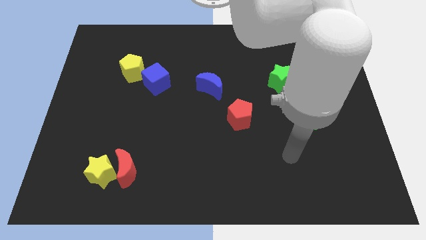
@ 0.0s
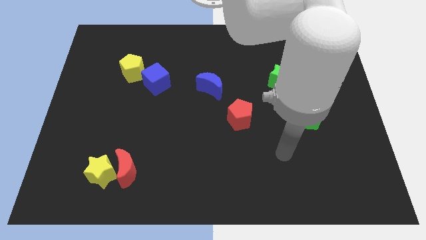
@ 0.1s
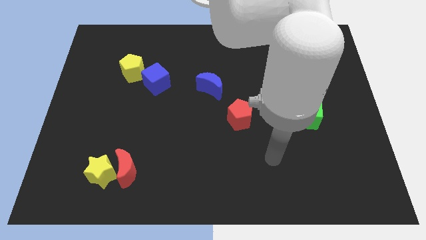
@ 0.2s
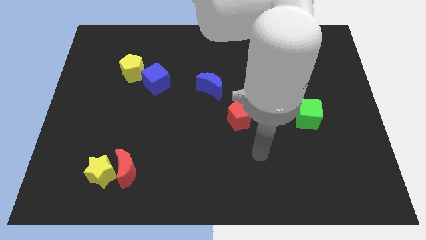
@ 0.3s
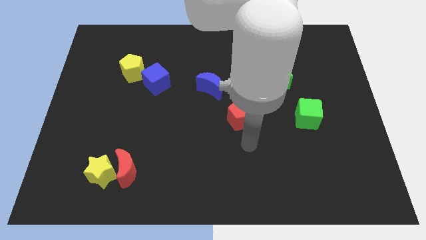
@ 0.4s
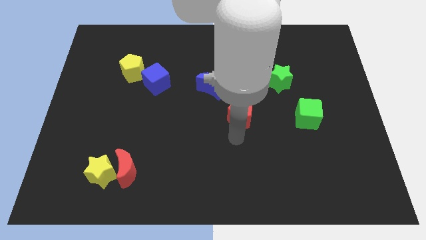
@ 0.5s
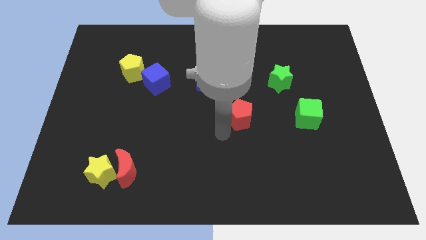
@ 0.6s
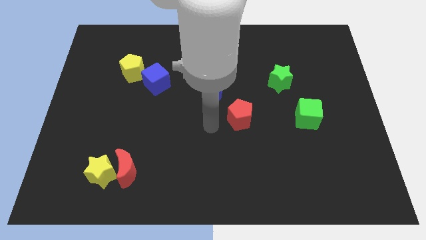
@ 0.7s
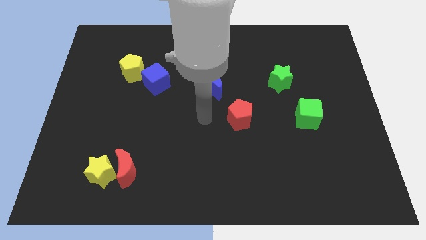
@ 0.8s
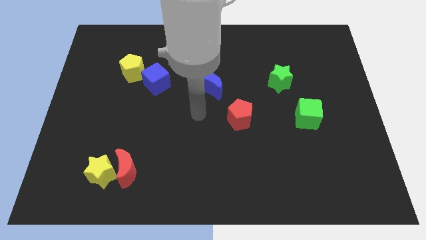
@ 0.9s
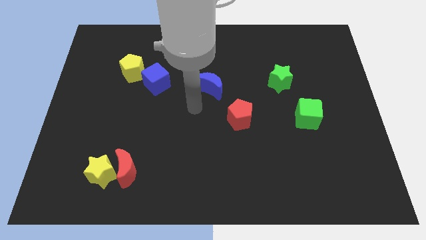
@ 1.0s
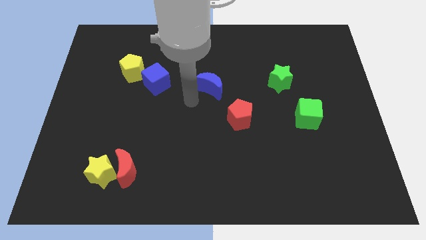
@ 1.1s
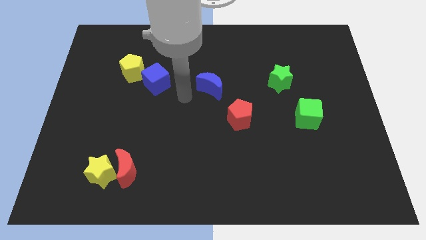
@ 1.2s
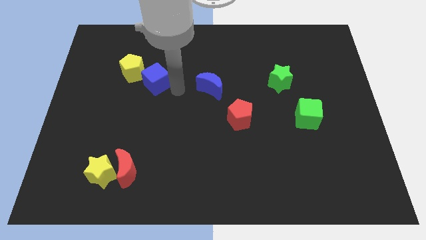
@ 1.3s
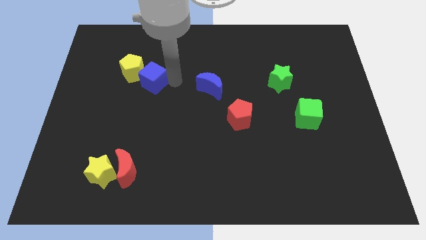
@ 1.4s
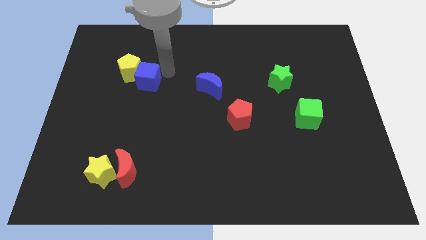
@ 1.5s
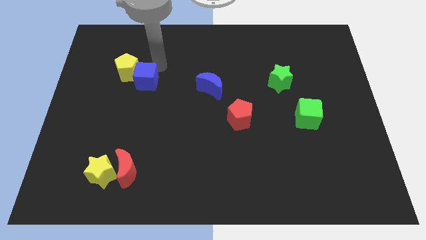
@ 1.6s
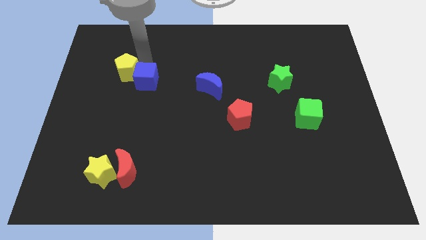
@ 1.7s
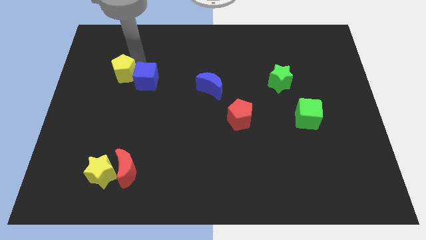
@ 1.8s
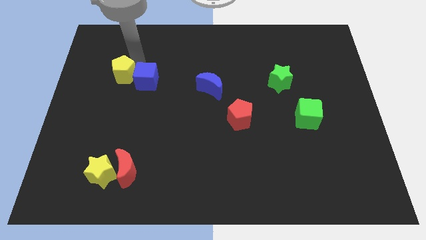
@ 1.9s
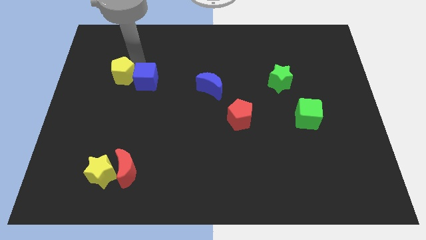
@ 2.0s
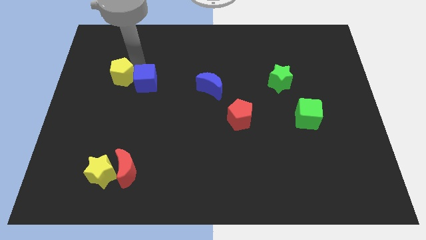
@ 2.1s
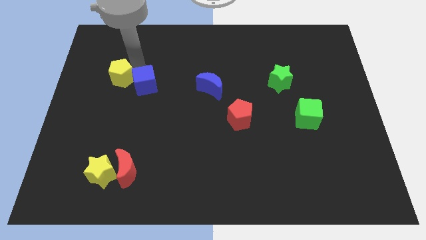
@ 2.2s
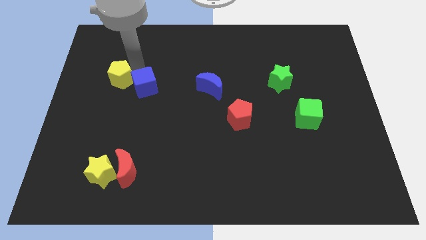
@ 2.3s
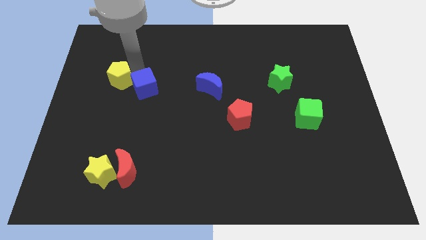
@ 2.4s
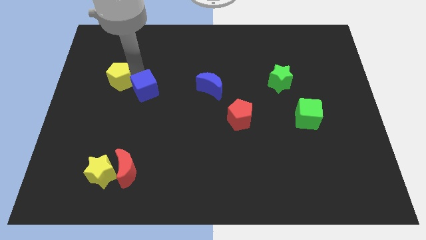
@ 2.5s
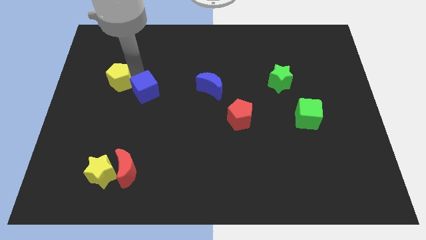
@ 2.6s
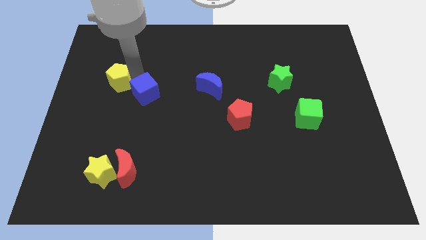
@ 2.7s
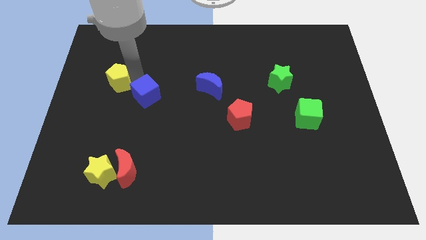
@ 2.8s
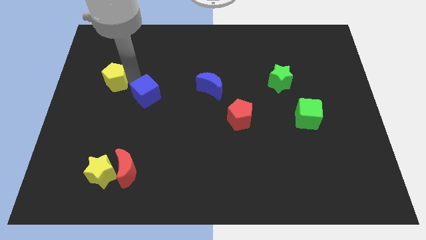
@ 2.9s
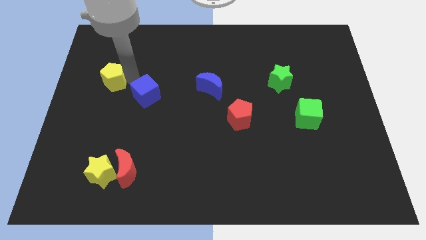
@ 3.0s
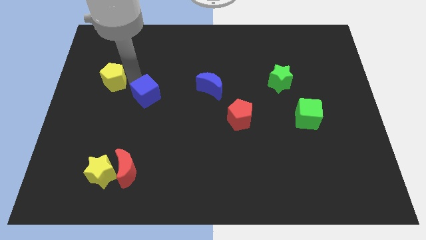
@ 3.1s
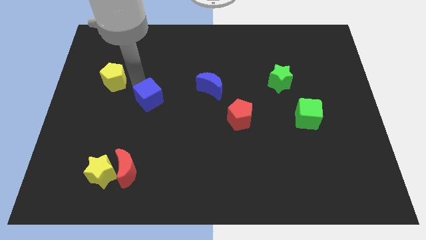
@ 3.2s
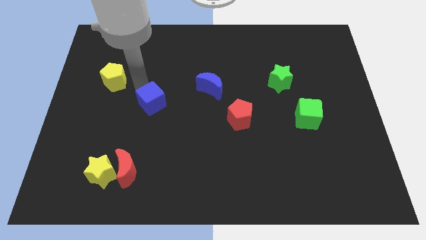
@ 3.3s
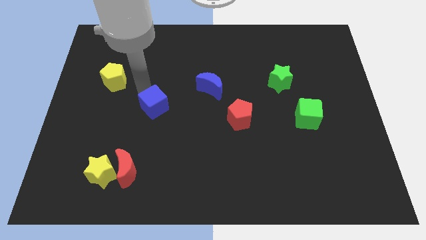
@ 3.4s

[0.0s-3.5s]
push the blue cube downwards somewhat

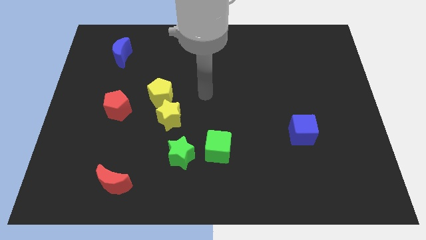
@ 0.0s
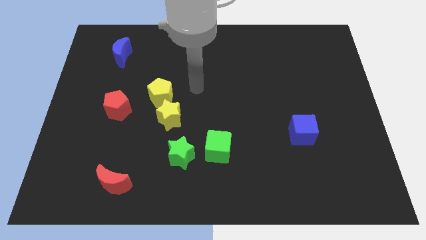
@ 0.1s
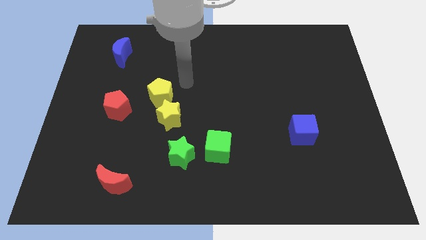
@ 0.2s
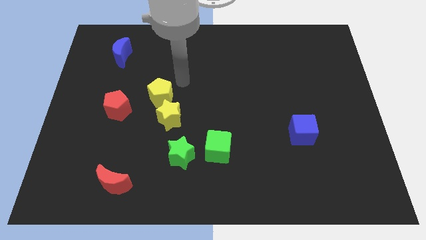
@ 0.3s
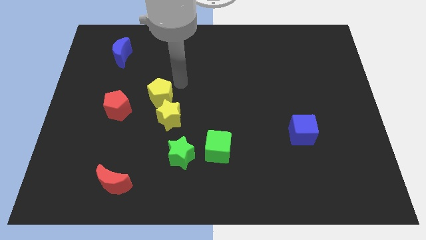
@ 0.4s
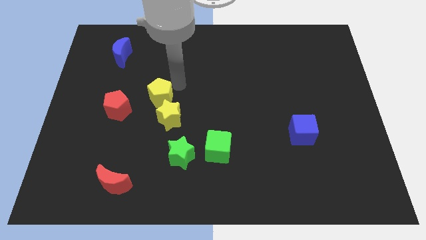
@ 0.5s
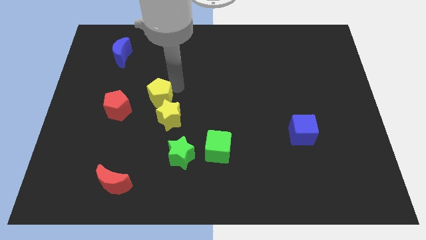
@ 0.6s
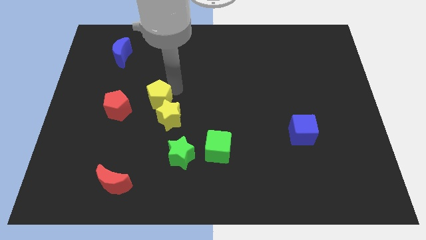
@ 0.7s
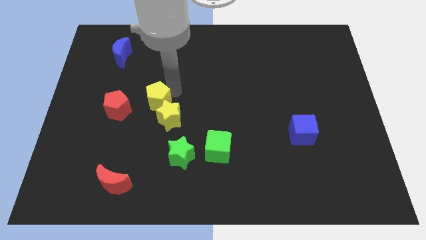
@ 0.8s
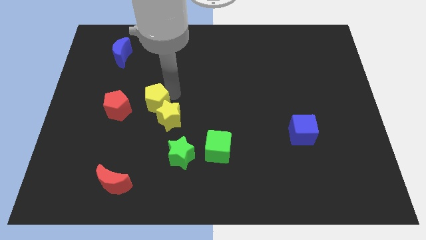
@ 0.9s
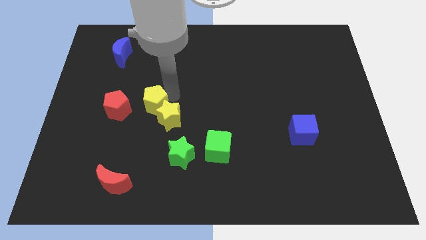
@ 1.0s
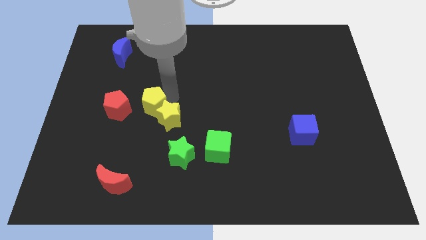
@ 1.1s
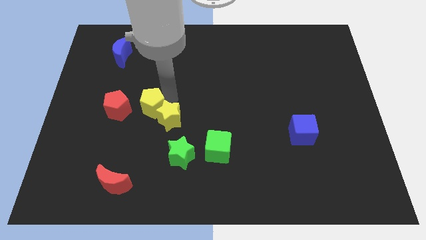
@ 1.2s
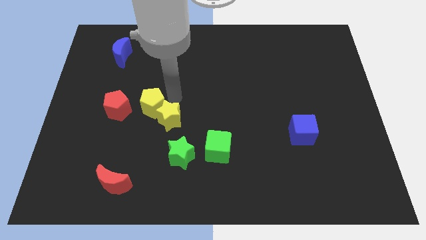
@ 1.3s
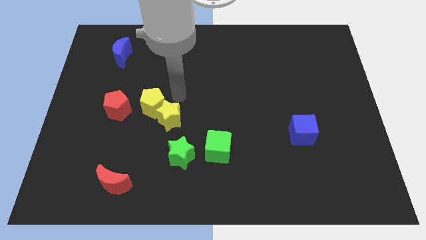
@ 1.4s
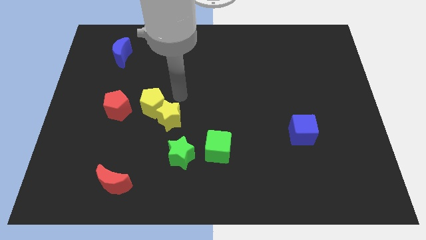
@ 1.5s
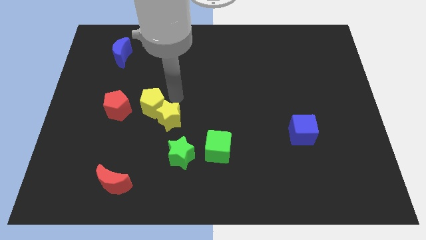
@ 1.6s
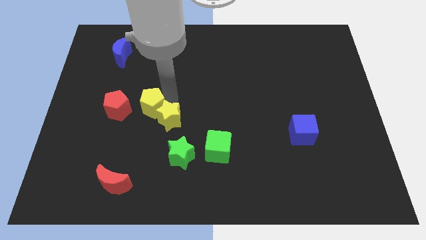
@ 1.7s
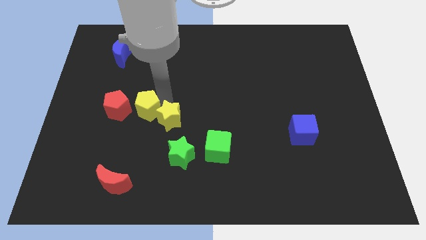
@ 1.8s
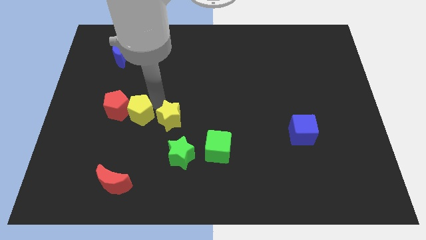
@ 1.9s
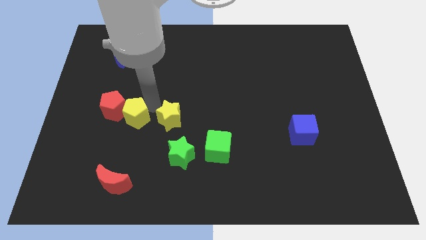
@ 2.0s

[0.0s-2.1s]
push the yellow pentagon a little bit diagonally down and to the left

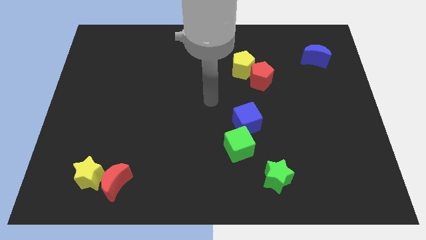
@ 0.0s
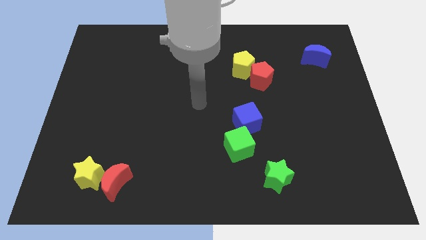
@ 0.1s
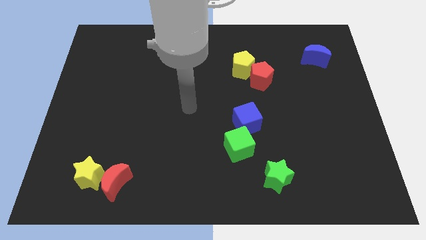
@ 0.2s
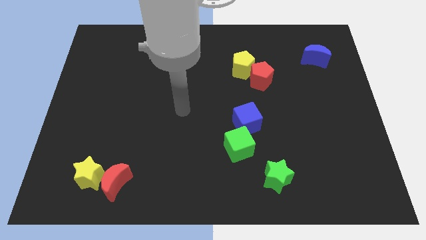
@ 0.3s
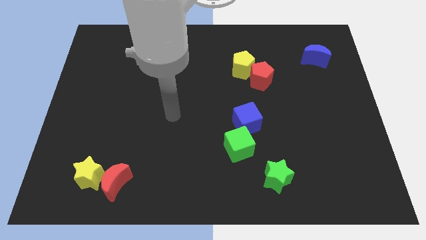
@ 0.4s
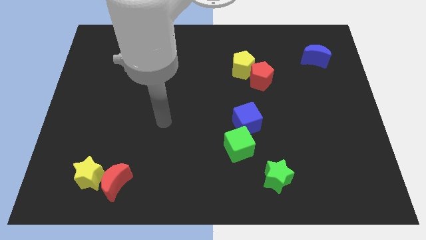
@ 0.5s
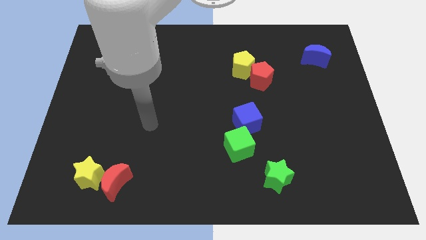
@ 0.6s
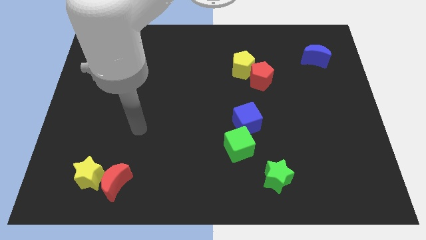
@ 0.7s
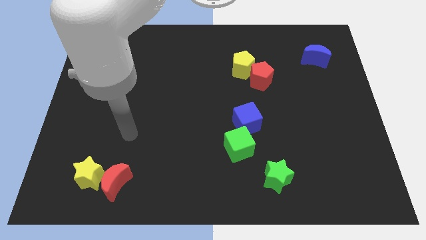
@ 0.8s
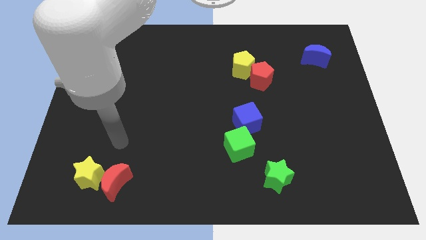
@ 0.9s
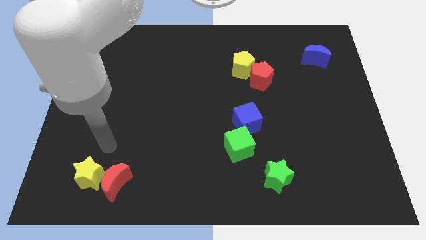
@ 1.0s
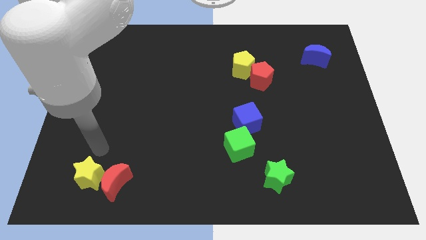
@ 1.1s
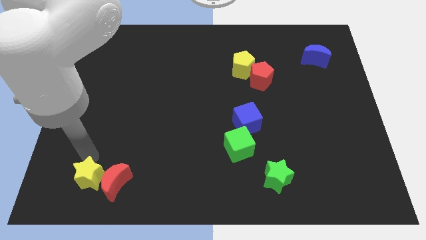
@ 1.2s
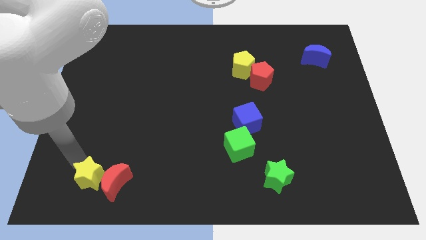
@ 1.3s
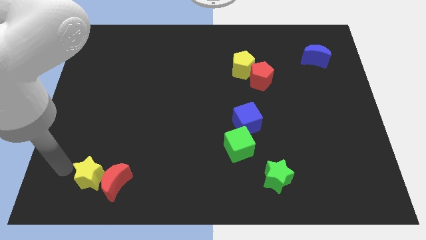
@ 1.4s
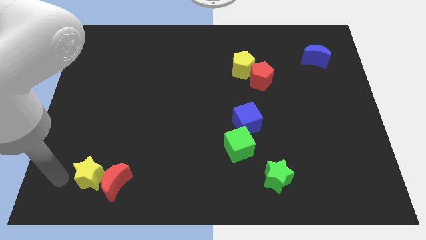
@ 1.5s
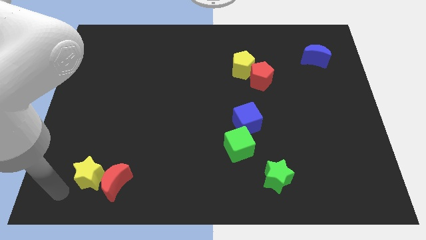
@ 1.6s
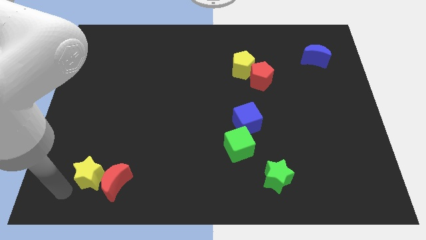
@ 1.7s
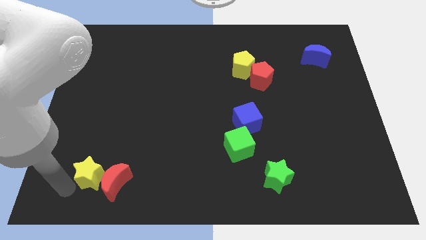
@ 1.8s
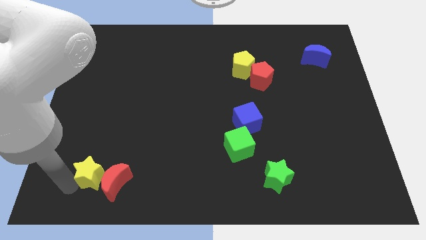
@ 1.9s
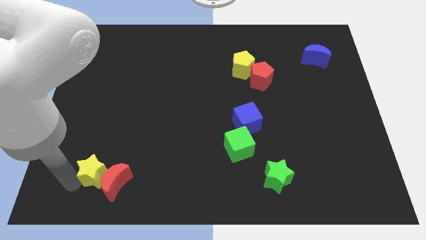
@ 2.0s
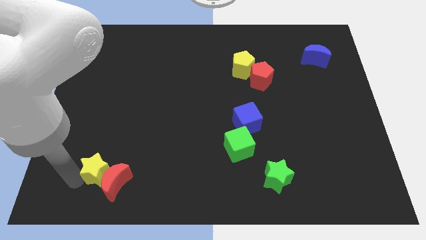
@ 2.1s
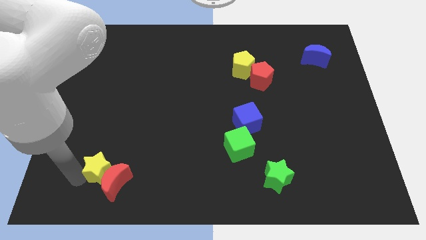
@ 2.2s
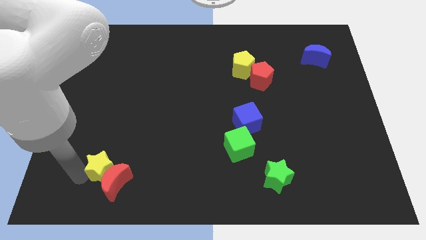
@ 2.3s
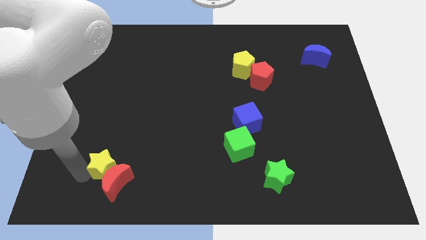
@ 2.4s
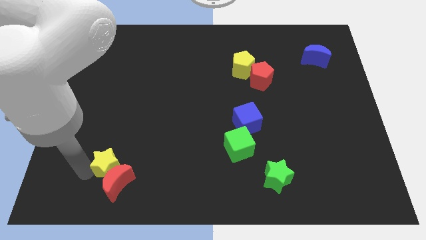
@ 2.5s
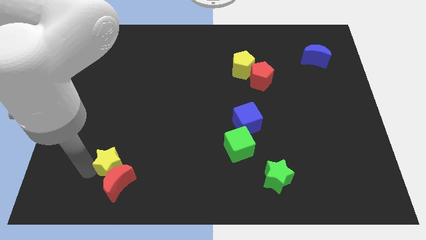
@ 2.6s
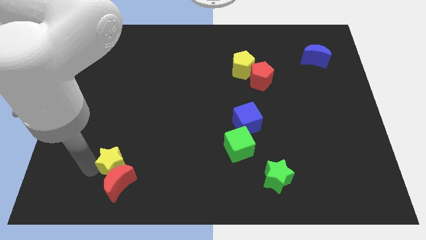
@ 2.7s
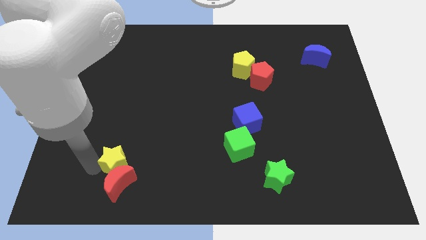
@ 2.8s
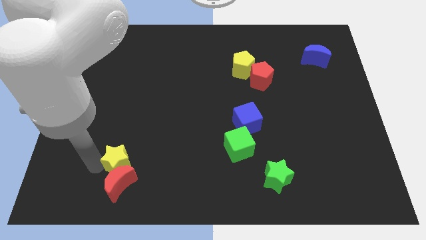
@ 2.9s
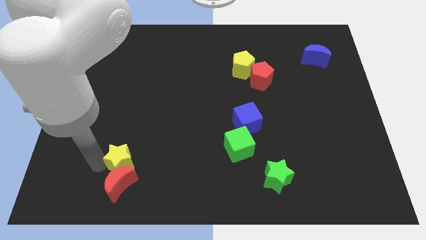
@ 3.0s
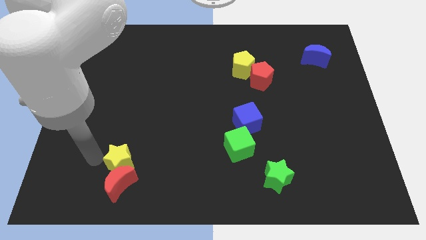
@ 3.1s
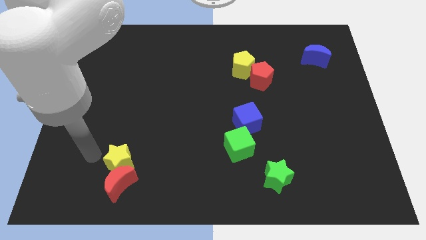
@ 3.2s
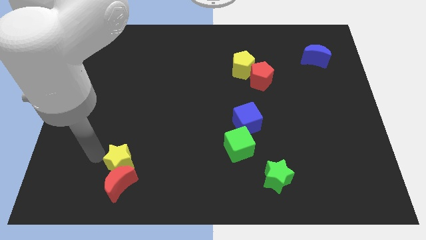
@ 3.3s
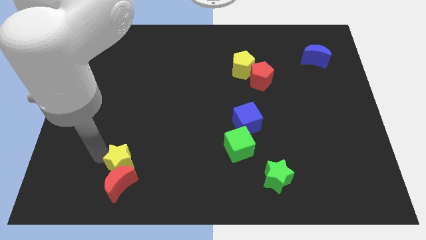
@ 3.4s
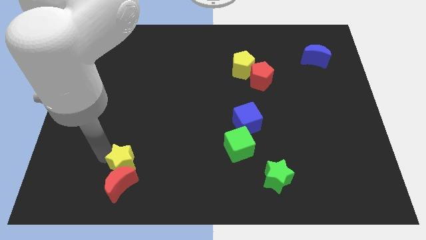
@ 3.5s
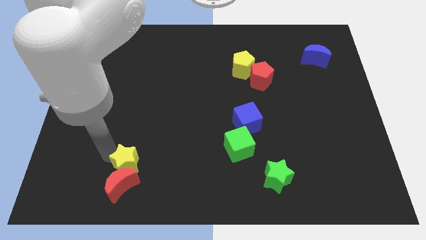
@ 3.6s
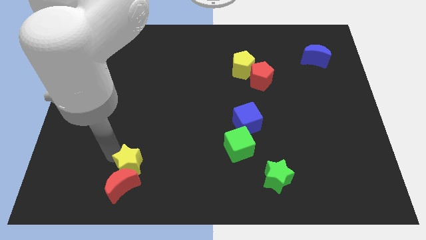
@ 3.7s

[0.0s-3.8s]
slightly slide the yellow star right
